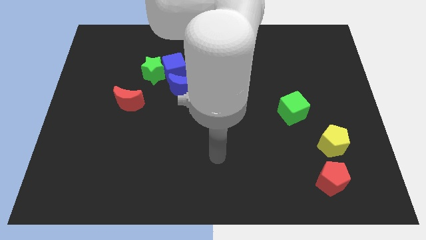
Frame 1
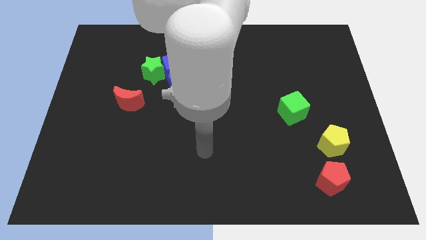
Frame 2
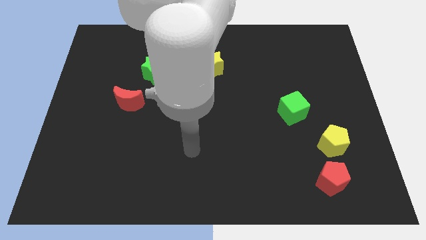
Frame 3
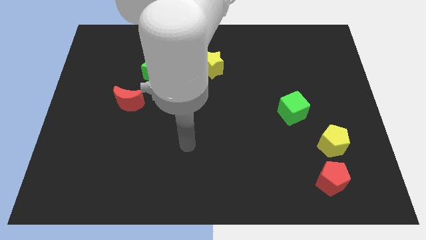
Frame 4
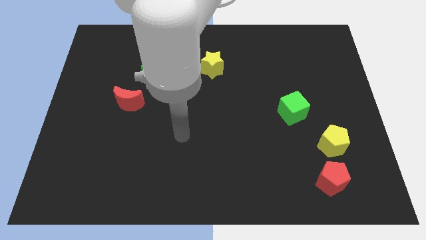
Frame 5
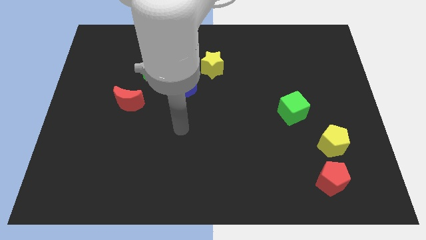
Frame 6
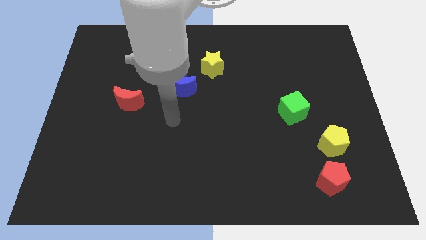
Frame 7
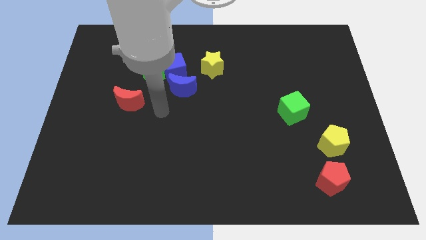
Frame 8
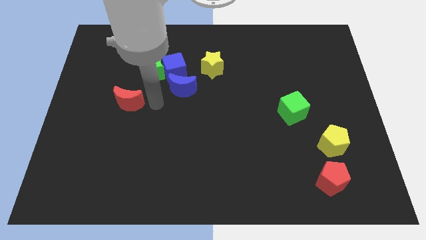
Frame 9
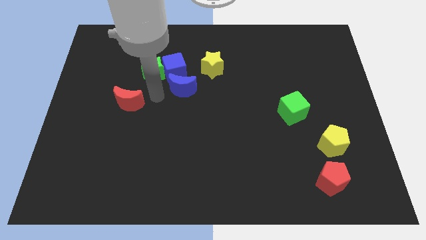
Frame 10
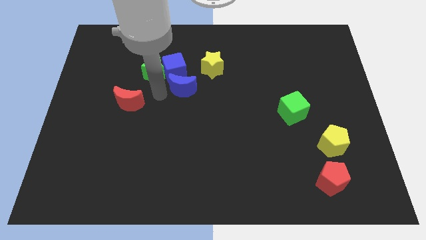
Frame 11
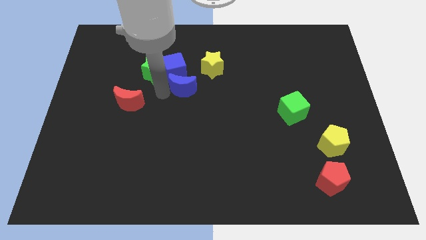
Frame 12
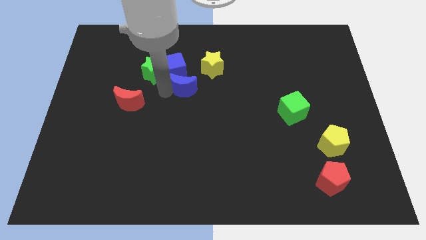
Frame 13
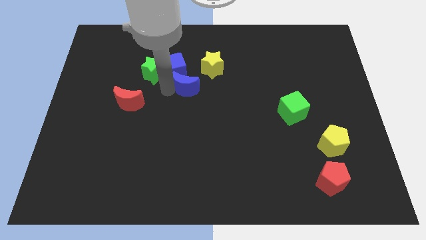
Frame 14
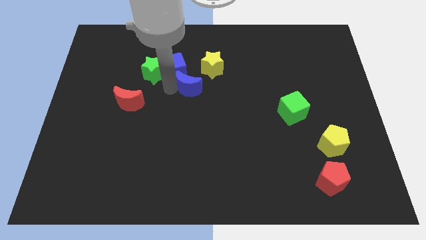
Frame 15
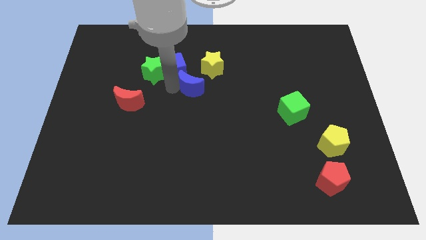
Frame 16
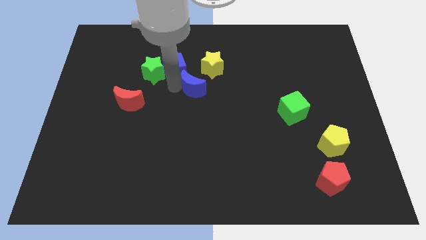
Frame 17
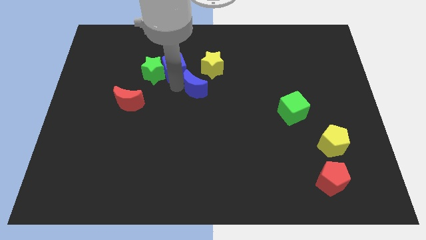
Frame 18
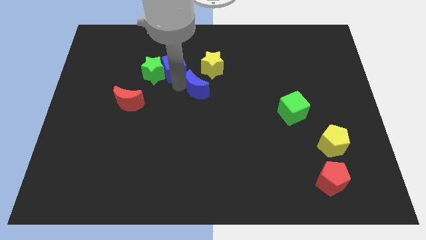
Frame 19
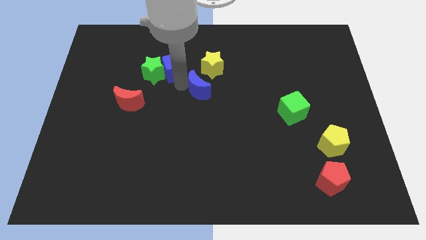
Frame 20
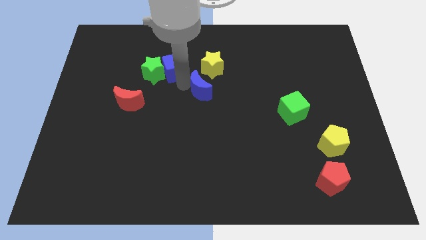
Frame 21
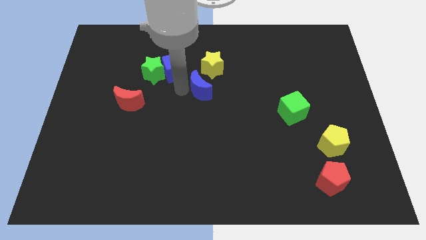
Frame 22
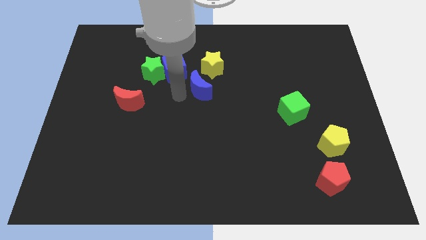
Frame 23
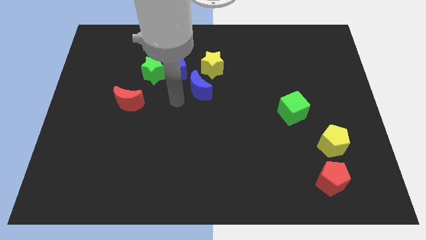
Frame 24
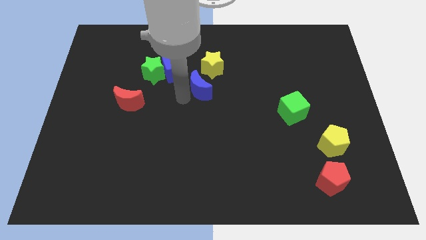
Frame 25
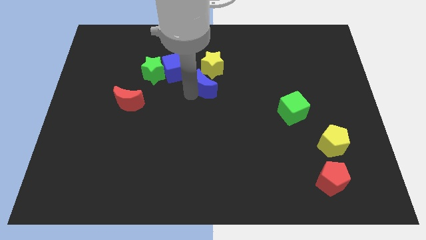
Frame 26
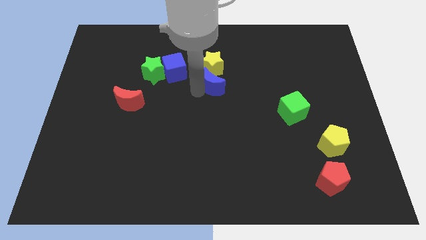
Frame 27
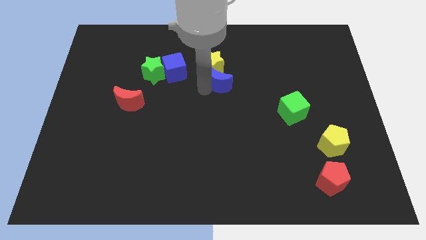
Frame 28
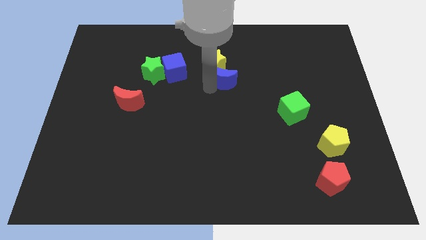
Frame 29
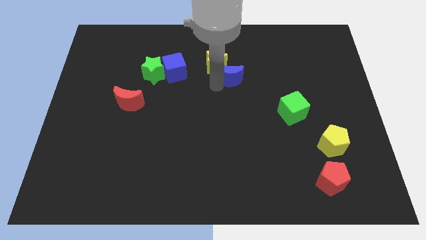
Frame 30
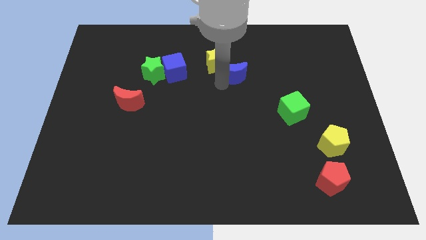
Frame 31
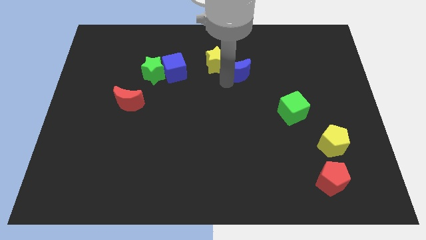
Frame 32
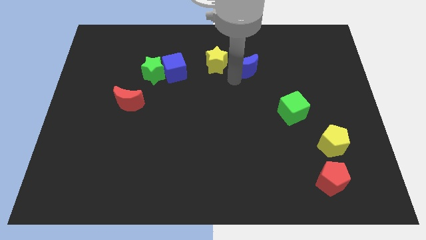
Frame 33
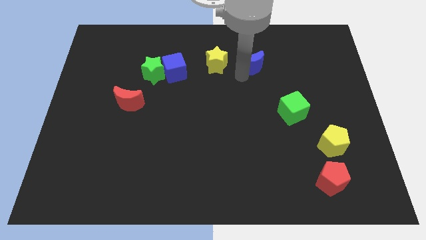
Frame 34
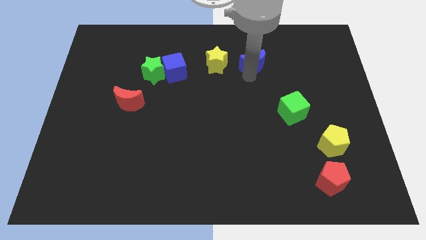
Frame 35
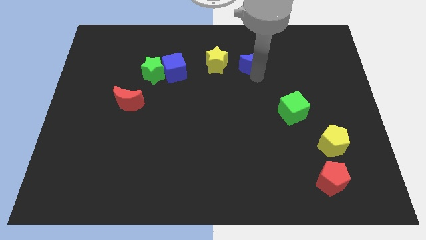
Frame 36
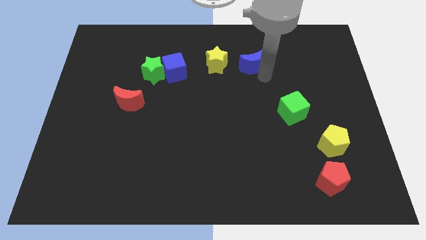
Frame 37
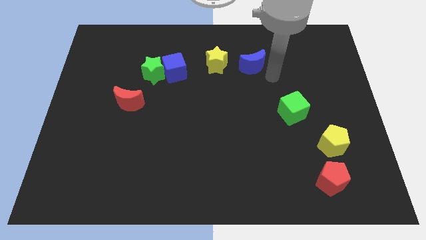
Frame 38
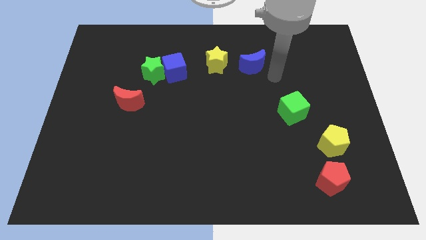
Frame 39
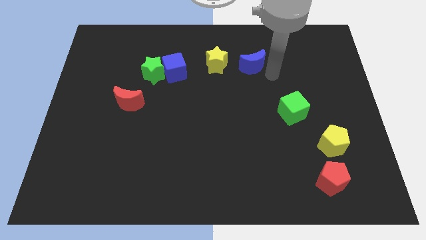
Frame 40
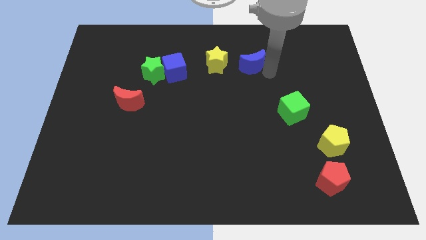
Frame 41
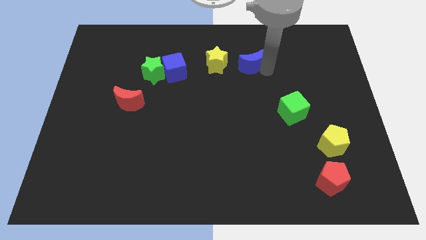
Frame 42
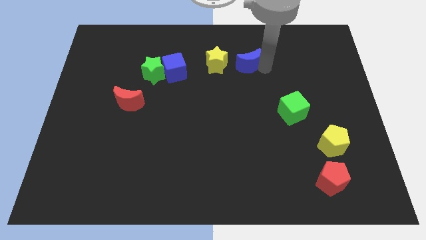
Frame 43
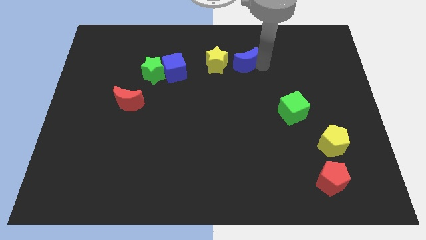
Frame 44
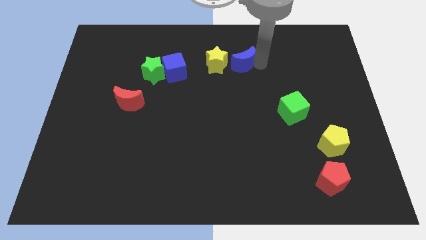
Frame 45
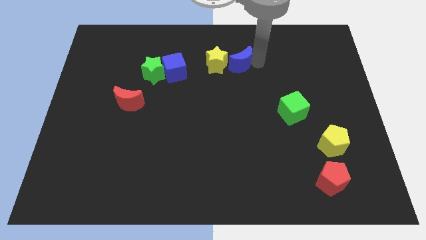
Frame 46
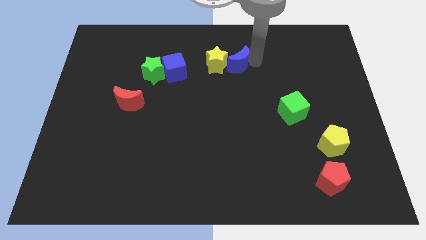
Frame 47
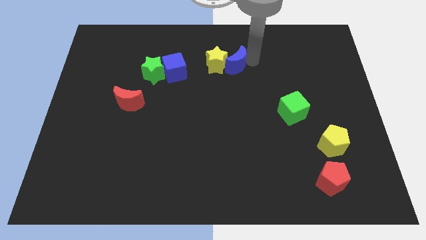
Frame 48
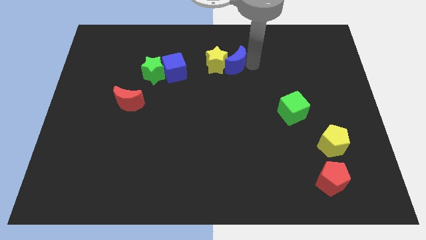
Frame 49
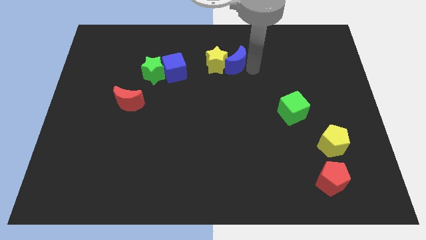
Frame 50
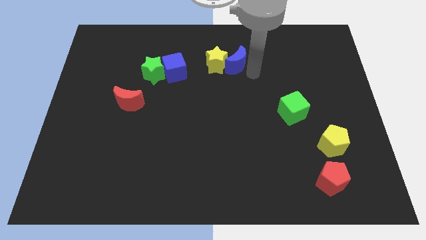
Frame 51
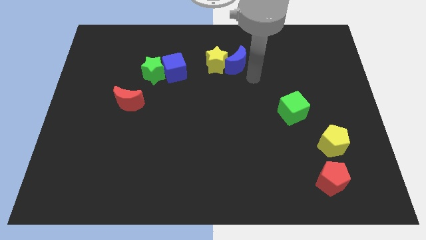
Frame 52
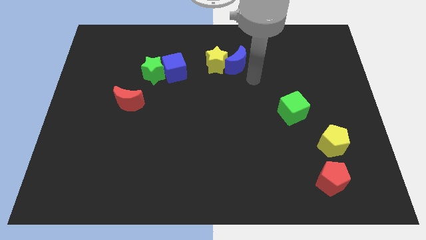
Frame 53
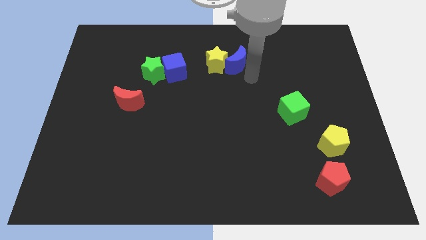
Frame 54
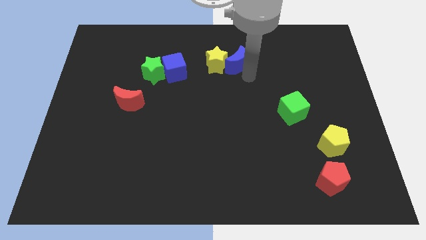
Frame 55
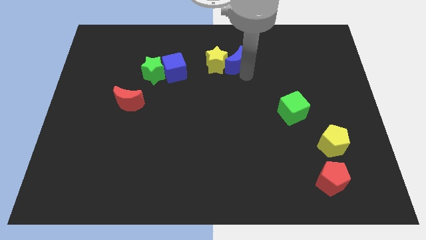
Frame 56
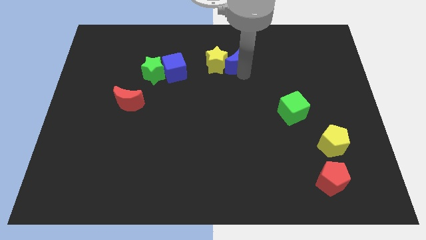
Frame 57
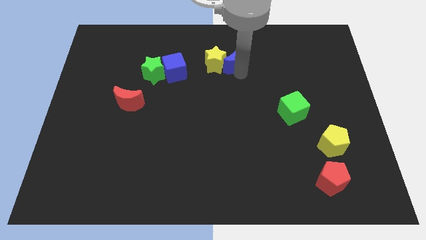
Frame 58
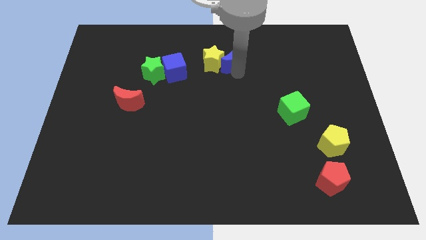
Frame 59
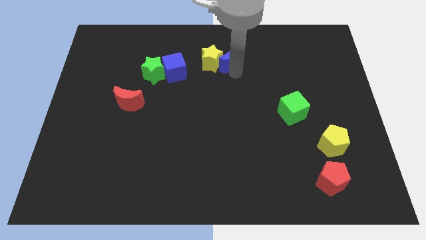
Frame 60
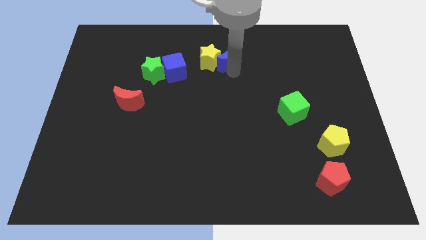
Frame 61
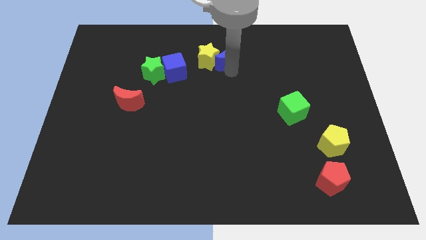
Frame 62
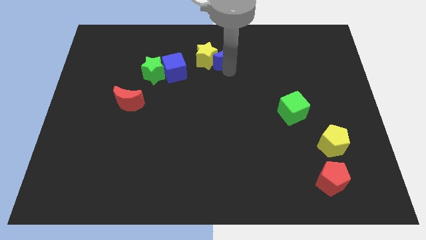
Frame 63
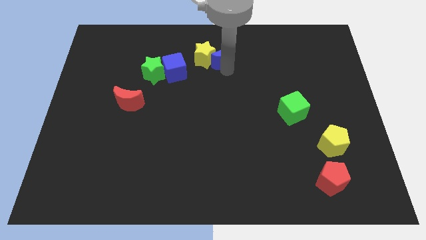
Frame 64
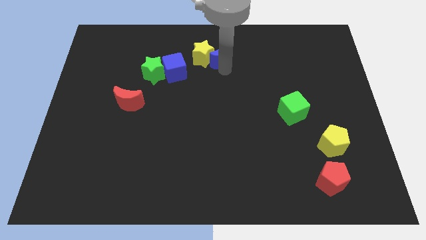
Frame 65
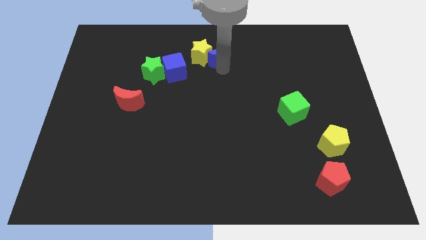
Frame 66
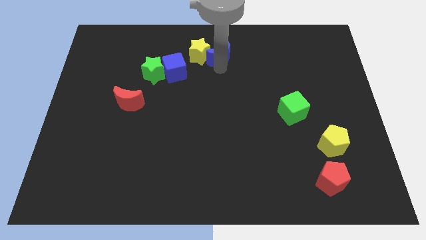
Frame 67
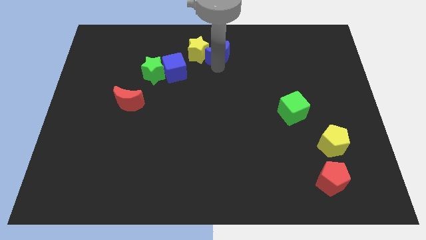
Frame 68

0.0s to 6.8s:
push the blue moon to the towards your base
